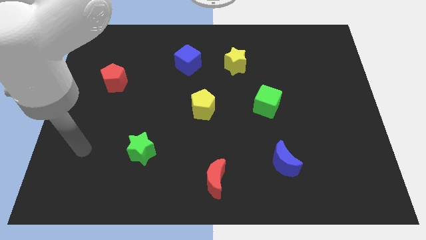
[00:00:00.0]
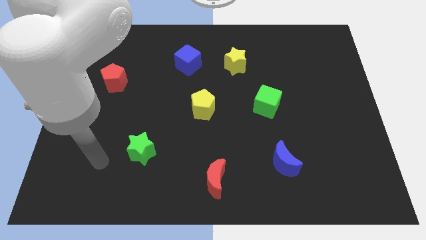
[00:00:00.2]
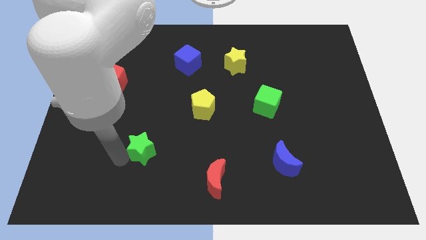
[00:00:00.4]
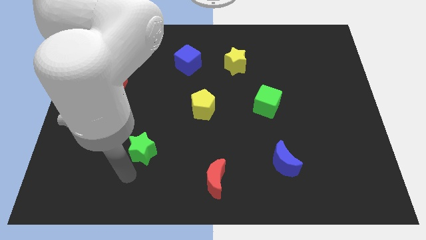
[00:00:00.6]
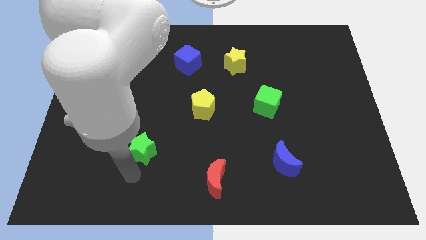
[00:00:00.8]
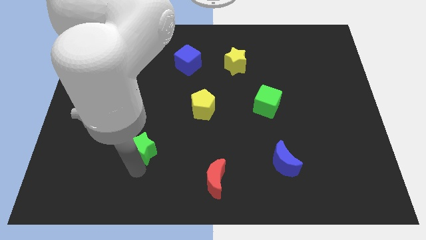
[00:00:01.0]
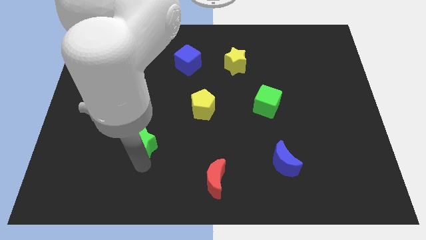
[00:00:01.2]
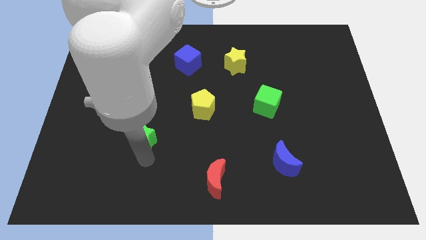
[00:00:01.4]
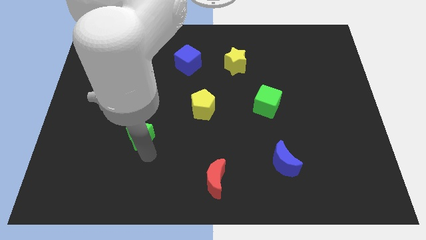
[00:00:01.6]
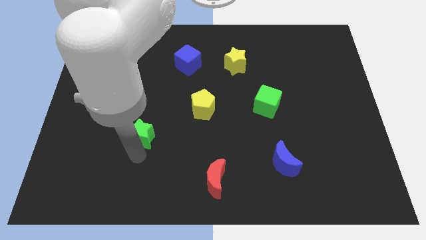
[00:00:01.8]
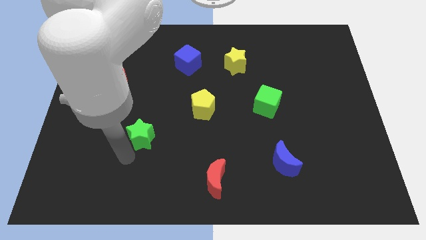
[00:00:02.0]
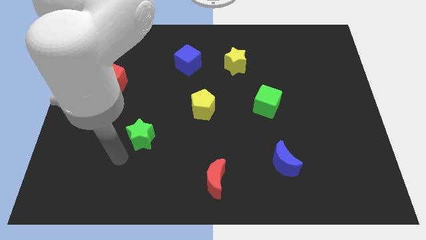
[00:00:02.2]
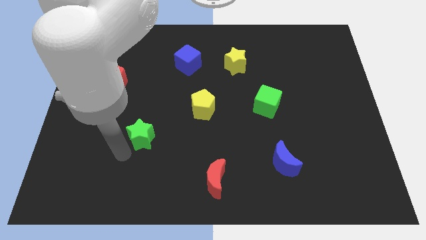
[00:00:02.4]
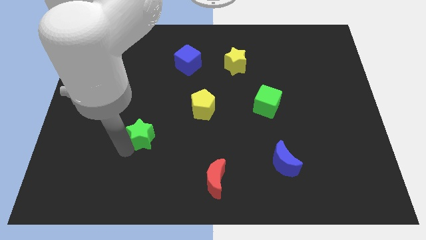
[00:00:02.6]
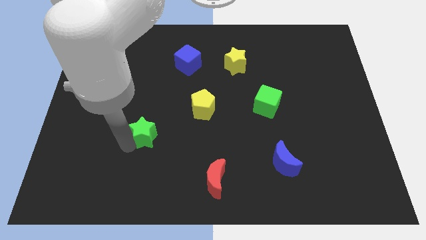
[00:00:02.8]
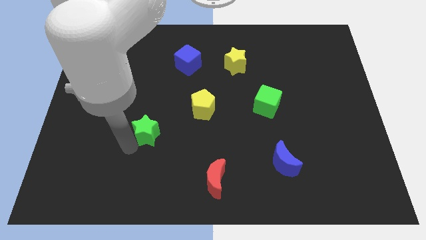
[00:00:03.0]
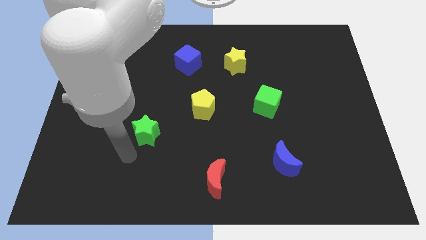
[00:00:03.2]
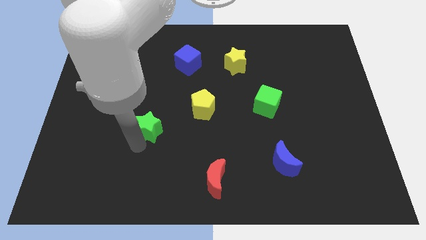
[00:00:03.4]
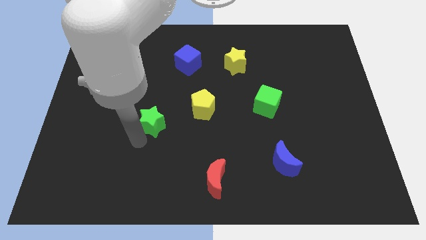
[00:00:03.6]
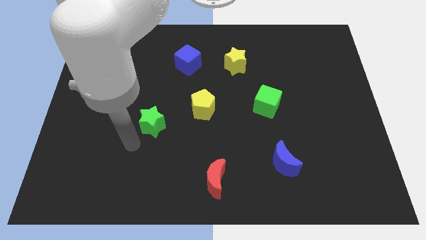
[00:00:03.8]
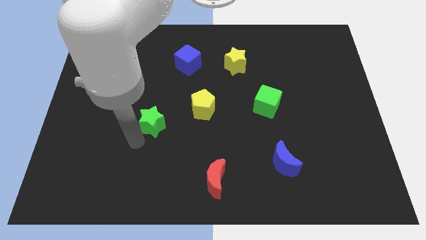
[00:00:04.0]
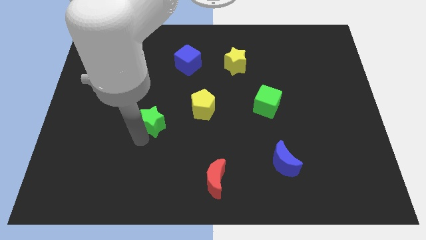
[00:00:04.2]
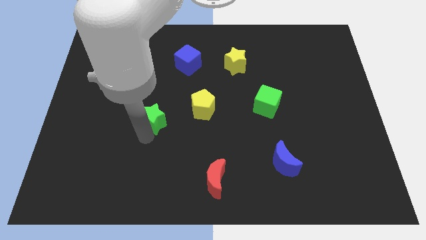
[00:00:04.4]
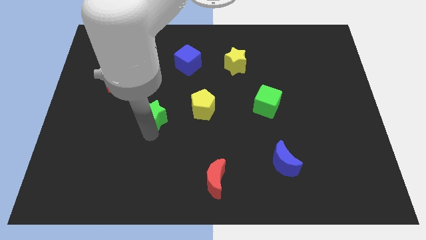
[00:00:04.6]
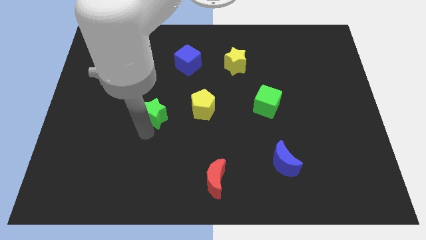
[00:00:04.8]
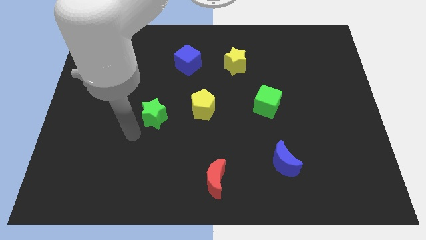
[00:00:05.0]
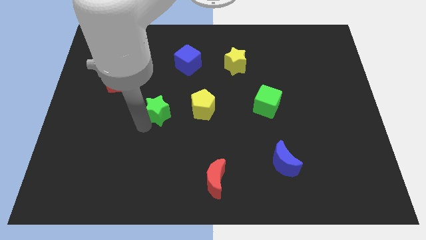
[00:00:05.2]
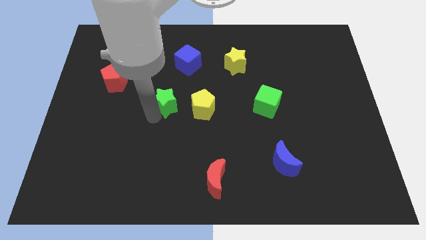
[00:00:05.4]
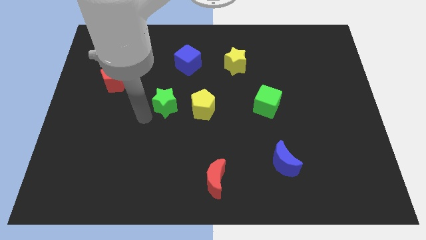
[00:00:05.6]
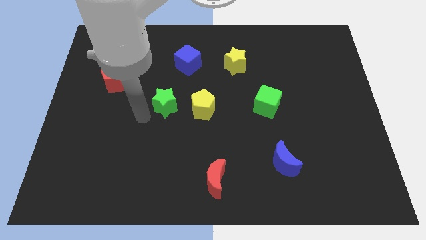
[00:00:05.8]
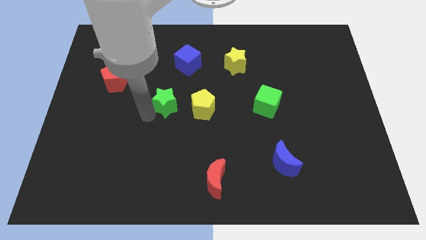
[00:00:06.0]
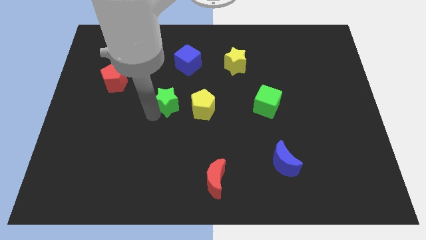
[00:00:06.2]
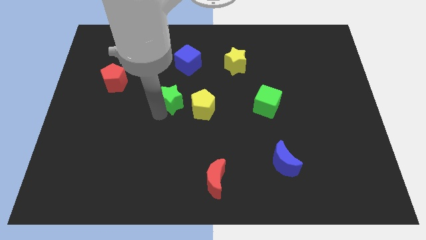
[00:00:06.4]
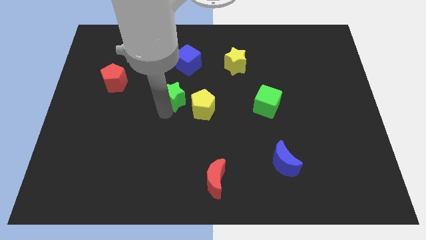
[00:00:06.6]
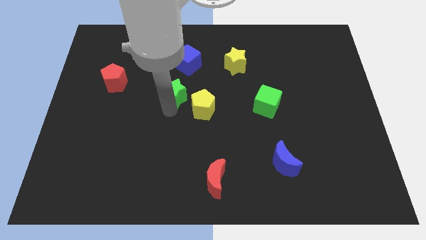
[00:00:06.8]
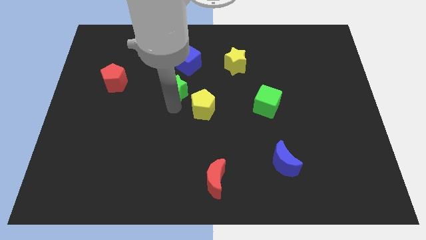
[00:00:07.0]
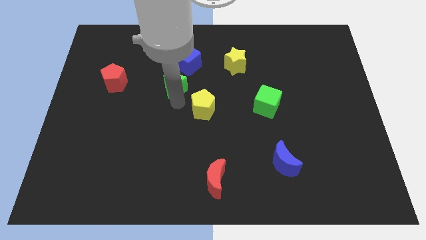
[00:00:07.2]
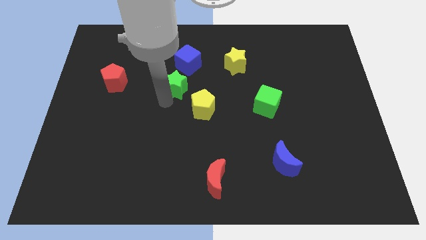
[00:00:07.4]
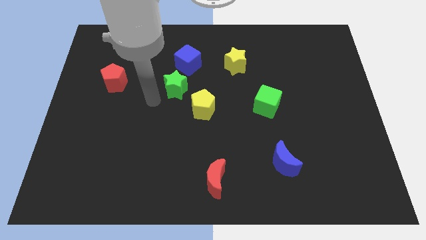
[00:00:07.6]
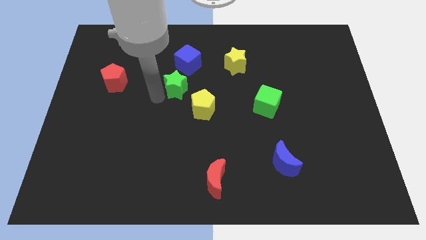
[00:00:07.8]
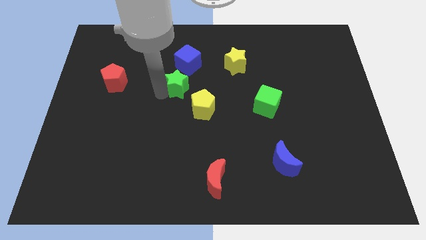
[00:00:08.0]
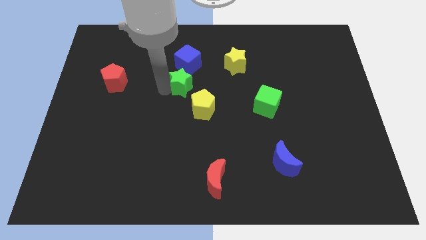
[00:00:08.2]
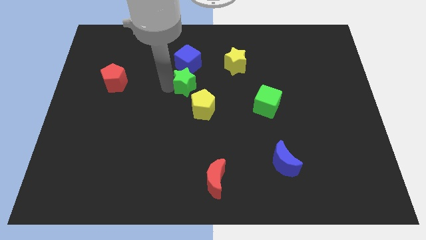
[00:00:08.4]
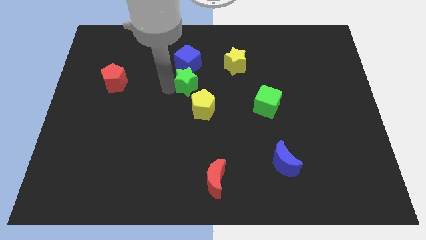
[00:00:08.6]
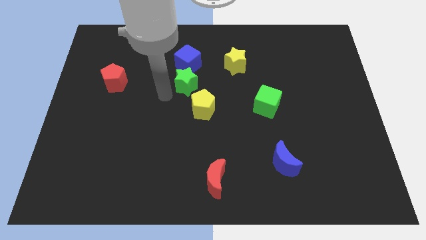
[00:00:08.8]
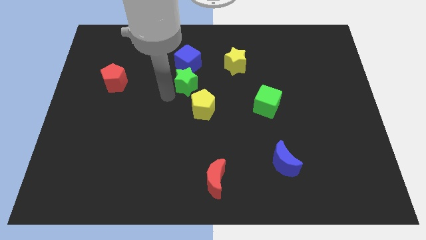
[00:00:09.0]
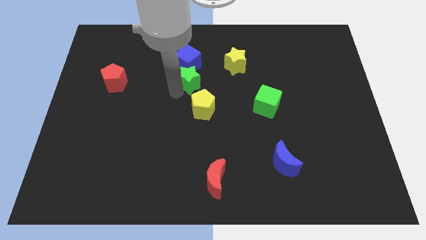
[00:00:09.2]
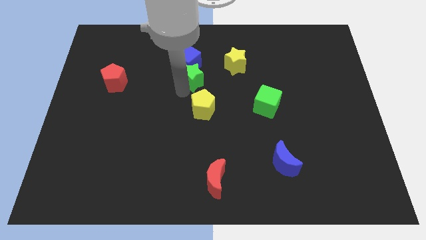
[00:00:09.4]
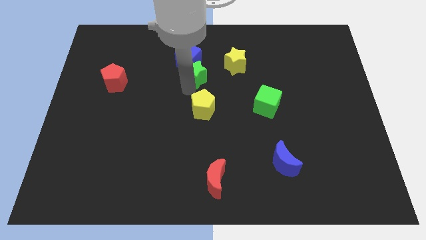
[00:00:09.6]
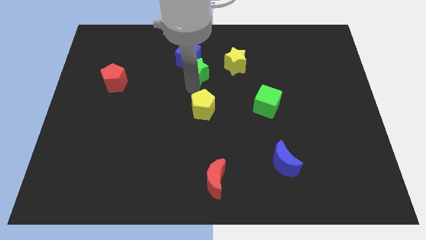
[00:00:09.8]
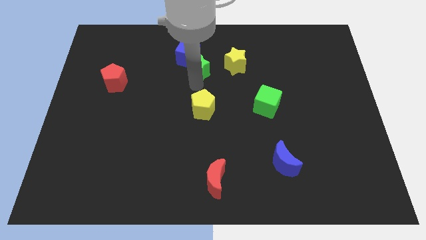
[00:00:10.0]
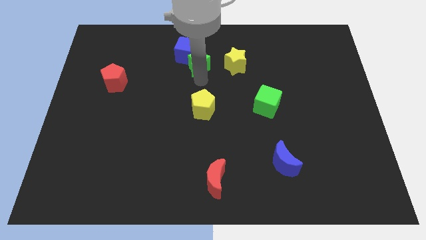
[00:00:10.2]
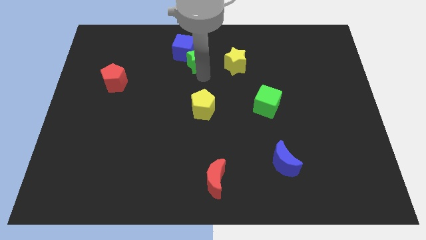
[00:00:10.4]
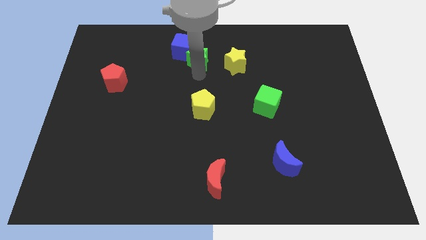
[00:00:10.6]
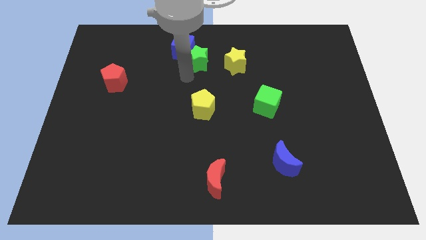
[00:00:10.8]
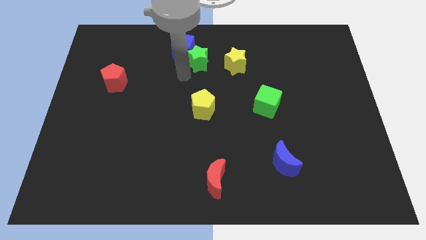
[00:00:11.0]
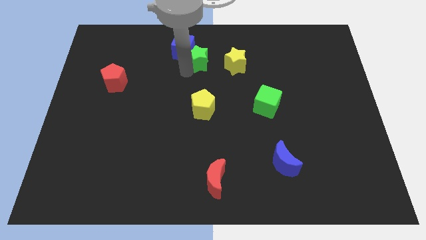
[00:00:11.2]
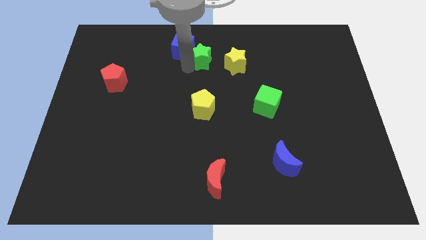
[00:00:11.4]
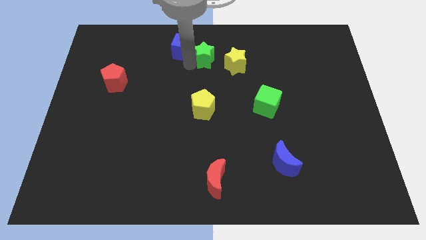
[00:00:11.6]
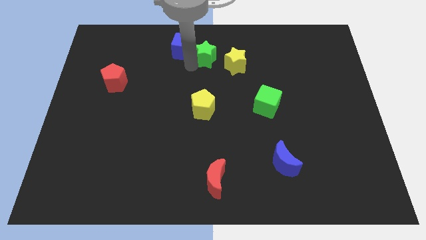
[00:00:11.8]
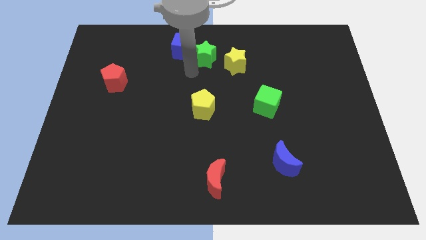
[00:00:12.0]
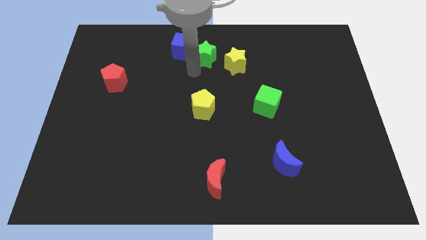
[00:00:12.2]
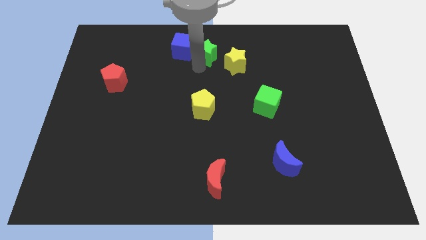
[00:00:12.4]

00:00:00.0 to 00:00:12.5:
put the green star to the towards your base

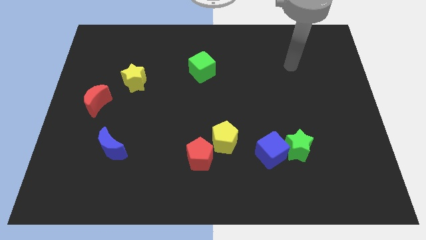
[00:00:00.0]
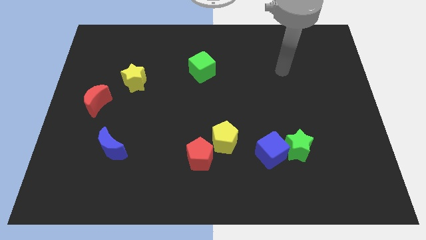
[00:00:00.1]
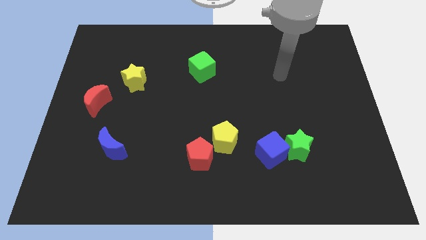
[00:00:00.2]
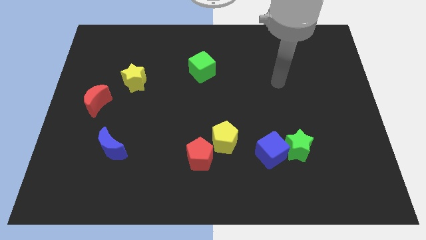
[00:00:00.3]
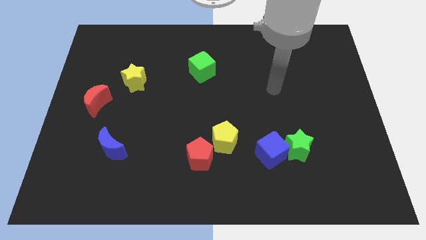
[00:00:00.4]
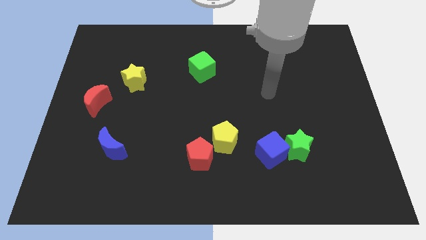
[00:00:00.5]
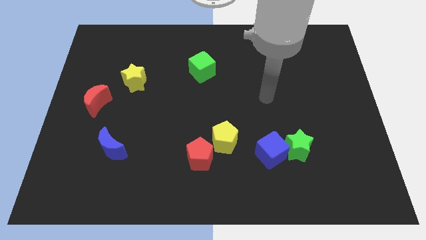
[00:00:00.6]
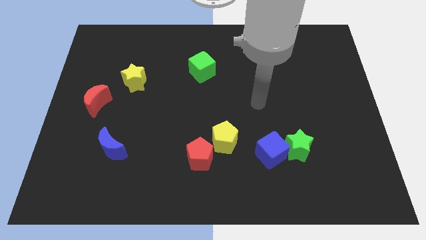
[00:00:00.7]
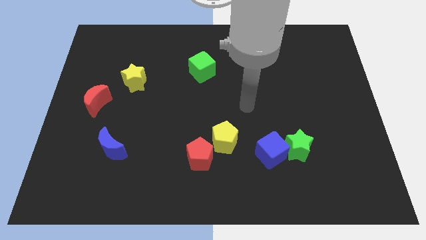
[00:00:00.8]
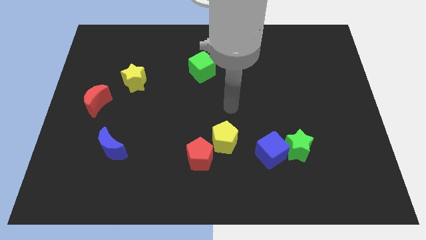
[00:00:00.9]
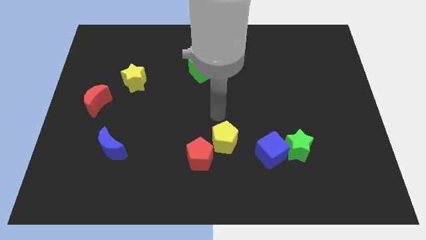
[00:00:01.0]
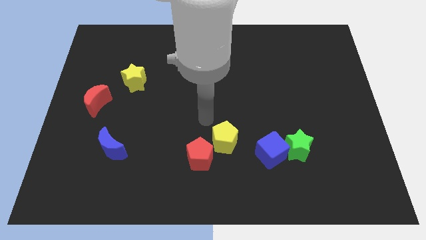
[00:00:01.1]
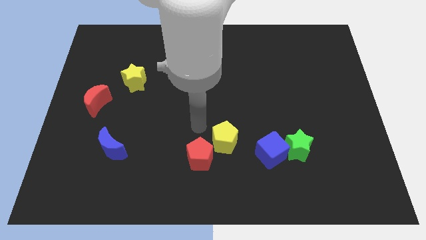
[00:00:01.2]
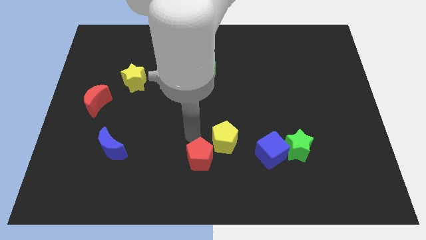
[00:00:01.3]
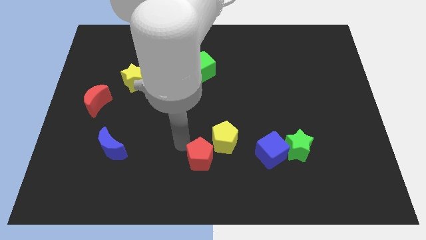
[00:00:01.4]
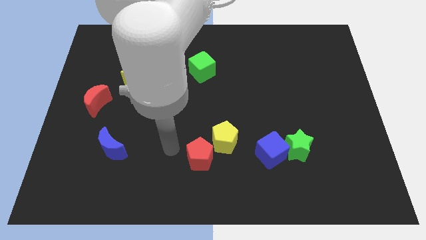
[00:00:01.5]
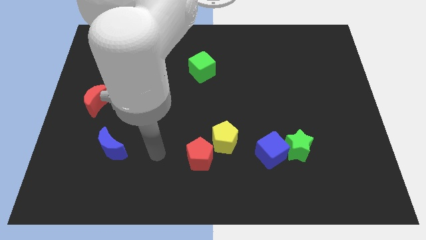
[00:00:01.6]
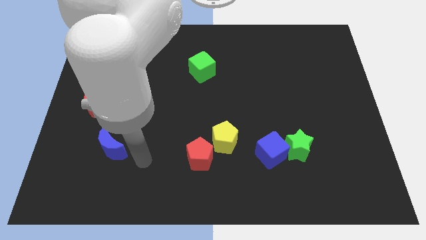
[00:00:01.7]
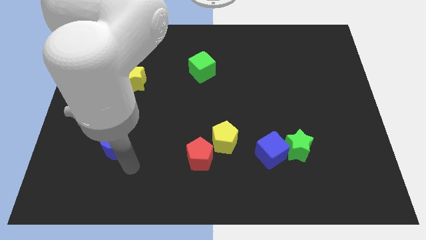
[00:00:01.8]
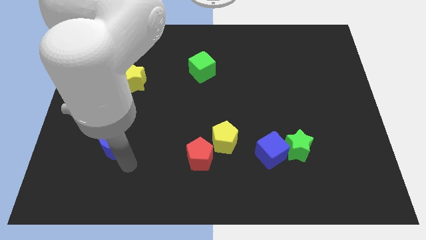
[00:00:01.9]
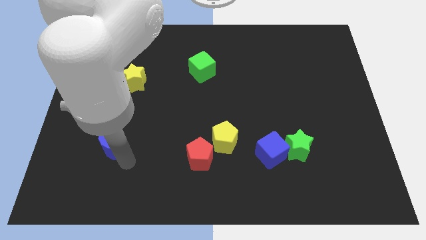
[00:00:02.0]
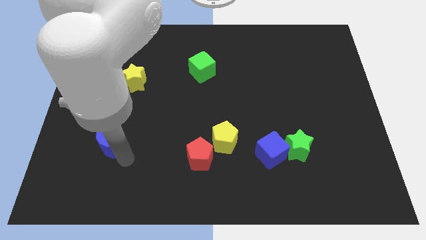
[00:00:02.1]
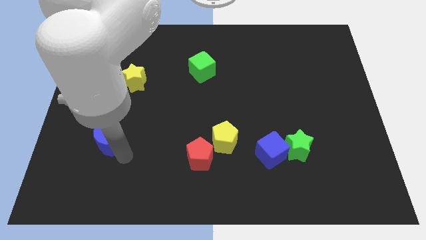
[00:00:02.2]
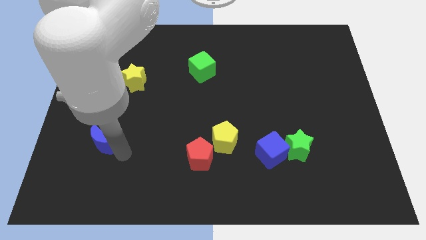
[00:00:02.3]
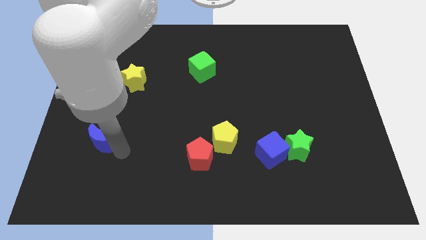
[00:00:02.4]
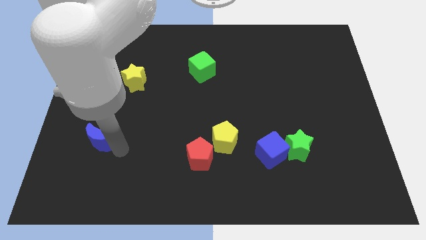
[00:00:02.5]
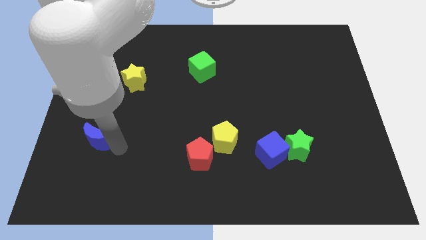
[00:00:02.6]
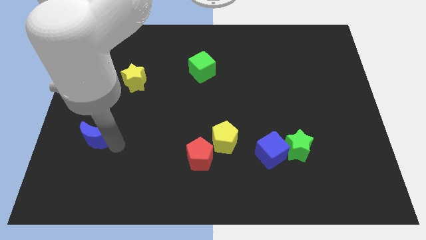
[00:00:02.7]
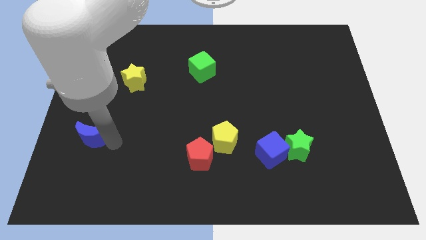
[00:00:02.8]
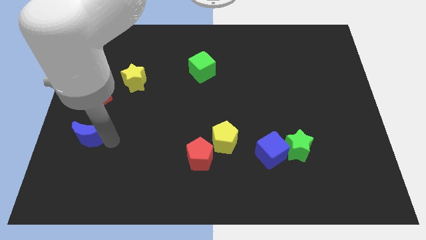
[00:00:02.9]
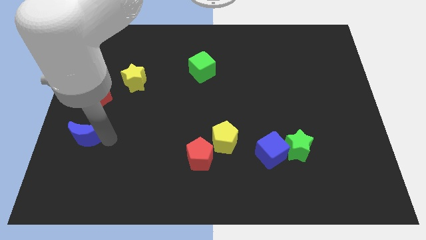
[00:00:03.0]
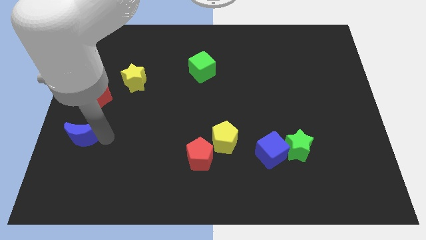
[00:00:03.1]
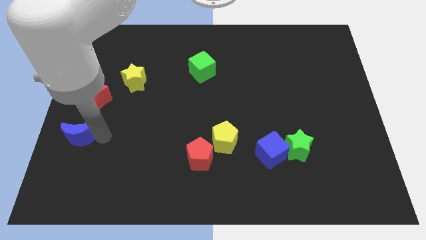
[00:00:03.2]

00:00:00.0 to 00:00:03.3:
move the blue moon to the left side
